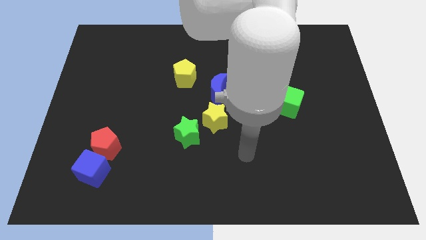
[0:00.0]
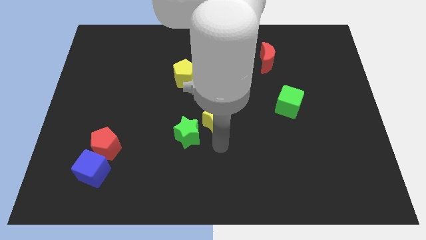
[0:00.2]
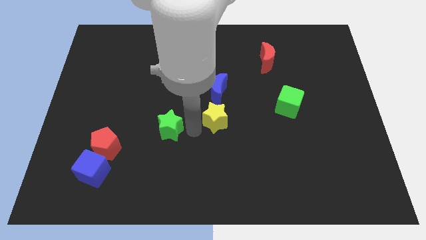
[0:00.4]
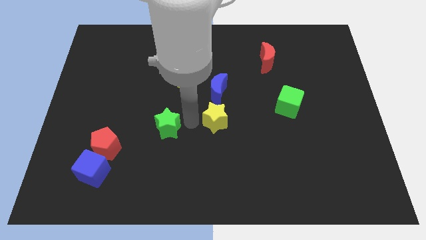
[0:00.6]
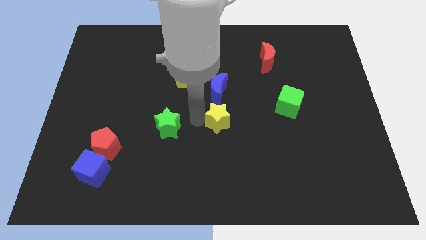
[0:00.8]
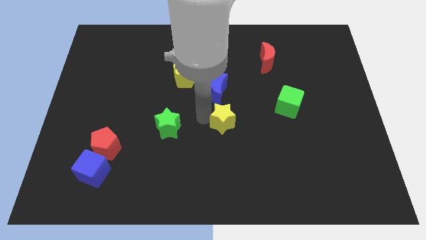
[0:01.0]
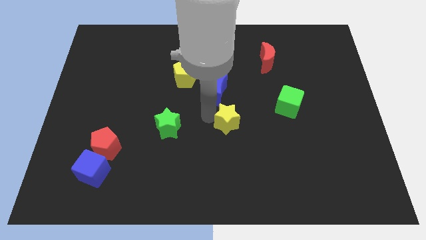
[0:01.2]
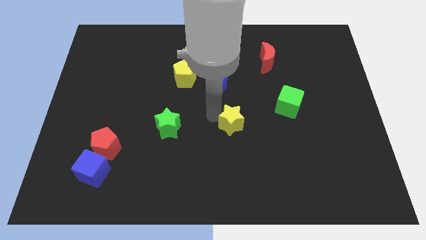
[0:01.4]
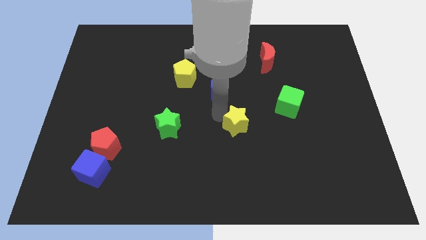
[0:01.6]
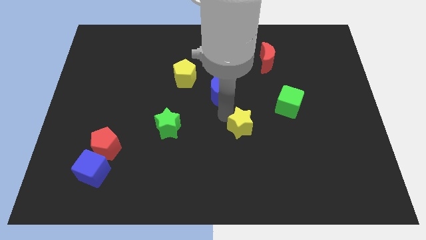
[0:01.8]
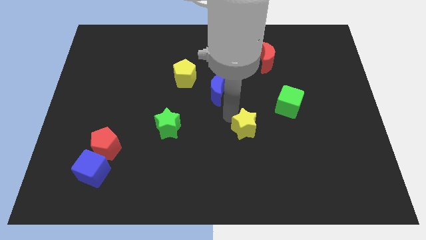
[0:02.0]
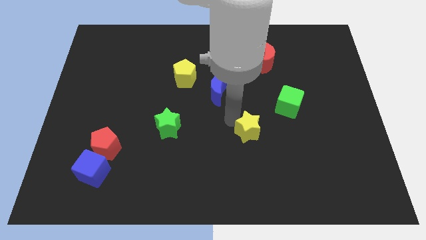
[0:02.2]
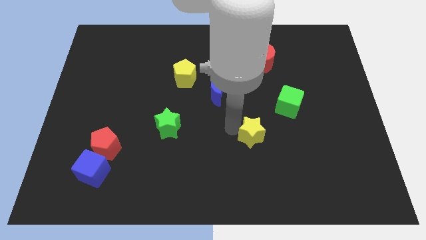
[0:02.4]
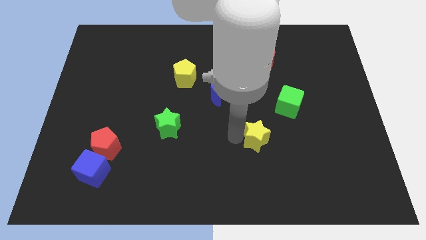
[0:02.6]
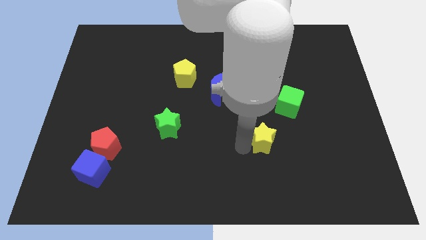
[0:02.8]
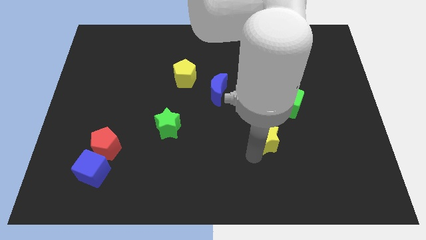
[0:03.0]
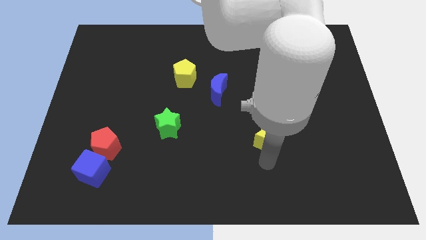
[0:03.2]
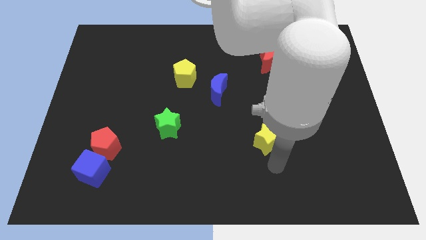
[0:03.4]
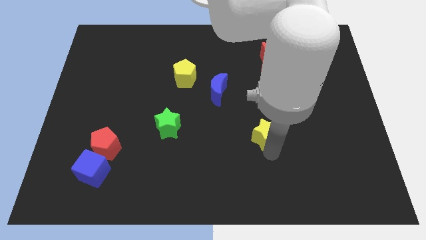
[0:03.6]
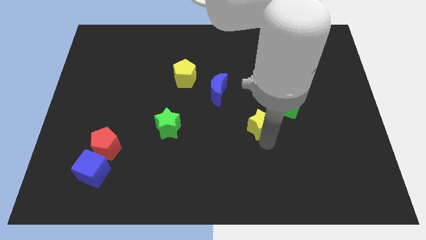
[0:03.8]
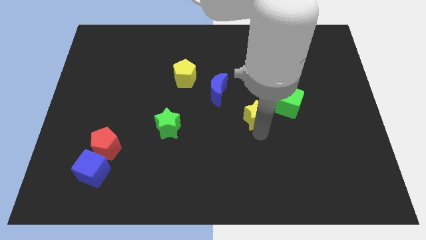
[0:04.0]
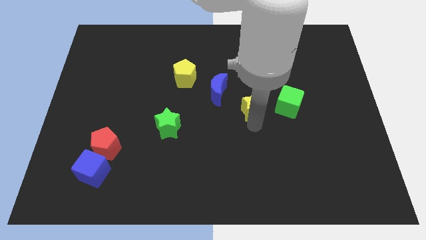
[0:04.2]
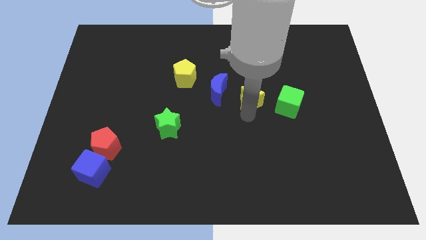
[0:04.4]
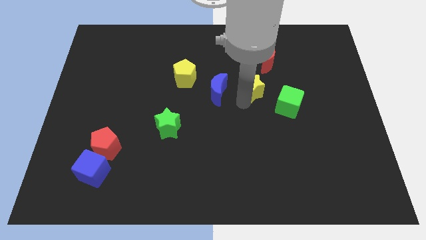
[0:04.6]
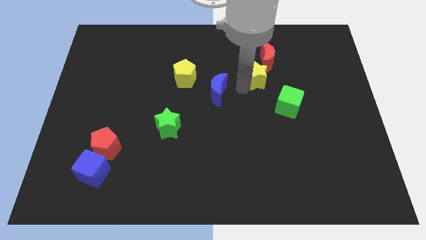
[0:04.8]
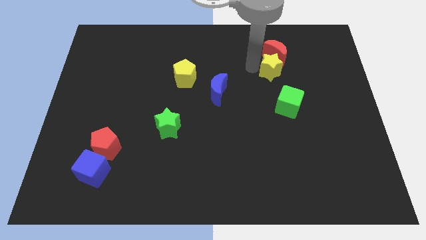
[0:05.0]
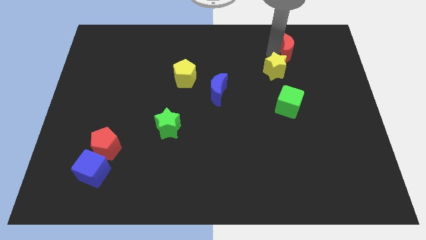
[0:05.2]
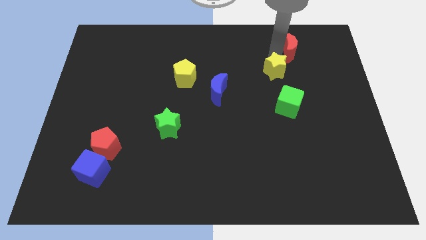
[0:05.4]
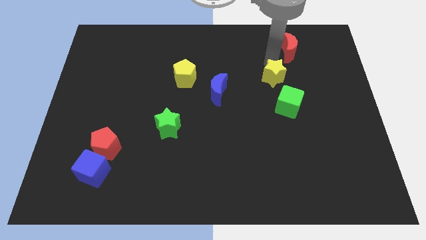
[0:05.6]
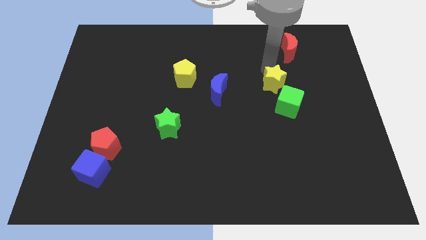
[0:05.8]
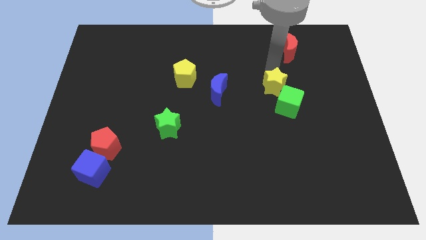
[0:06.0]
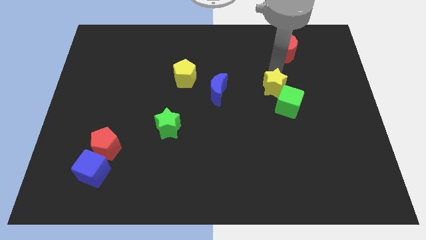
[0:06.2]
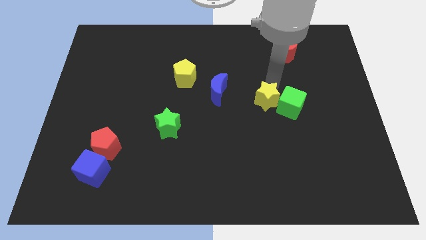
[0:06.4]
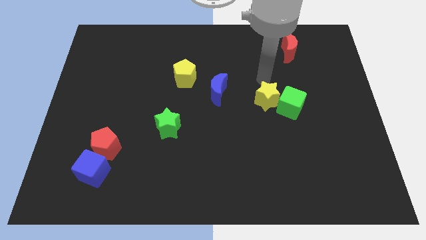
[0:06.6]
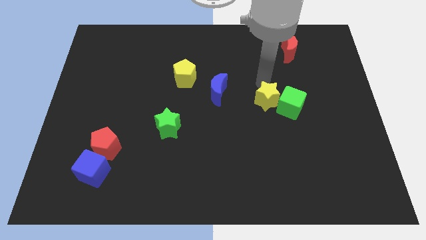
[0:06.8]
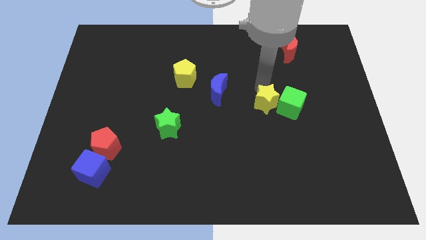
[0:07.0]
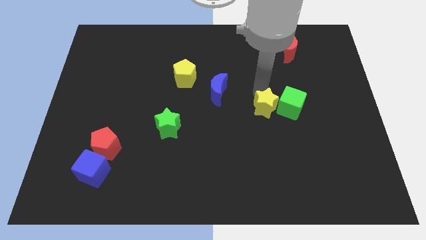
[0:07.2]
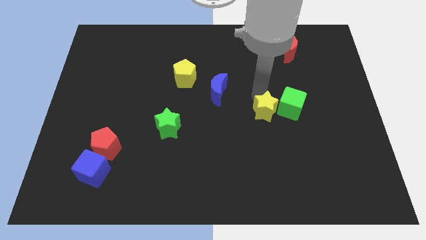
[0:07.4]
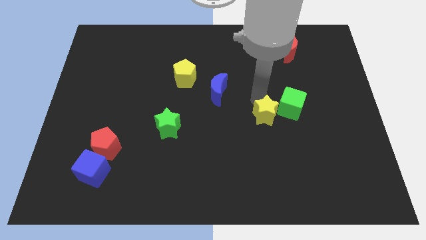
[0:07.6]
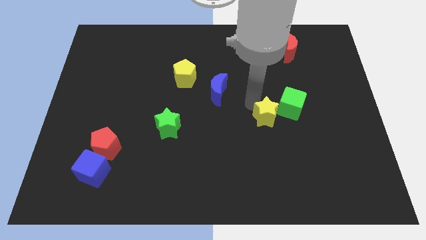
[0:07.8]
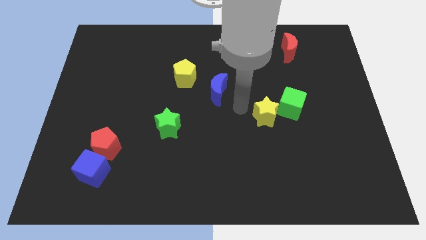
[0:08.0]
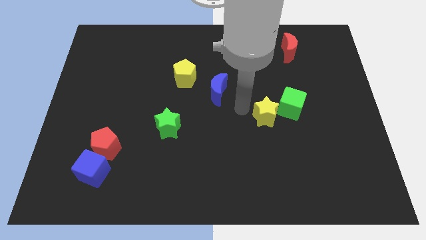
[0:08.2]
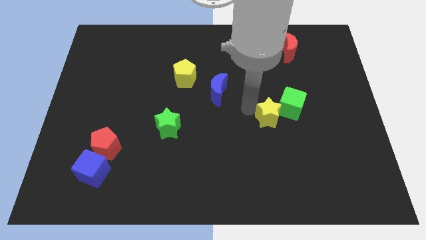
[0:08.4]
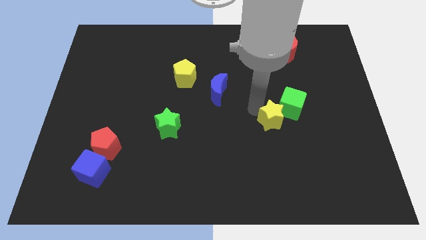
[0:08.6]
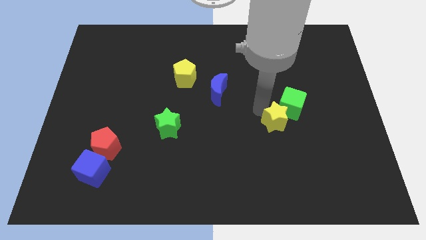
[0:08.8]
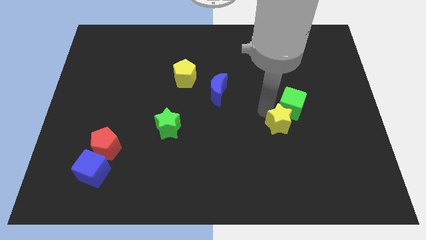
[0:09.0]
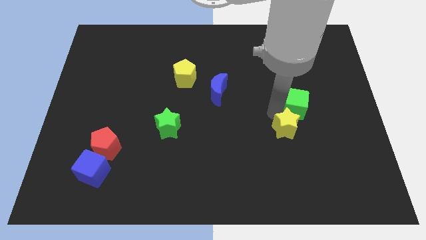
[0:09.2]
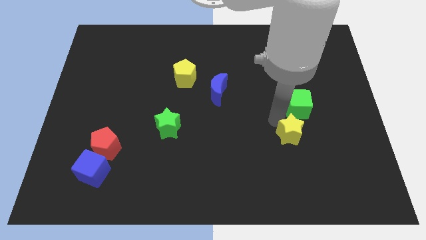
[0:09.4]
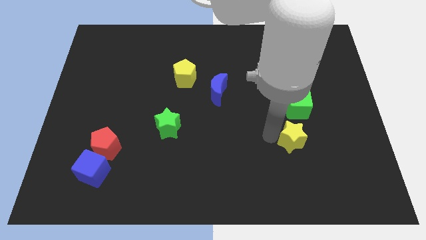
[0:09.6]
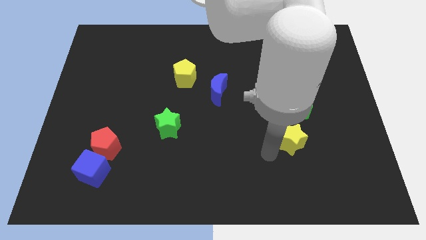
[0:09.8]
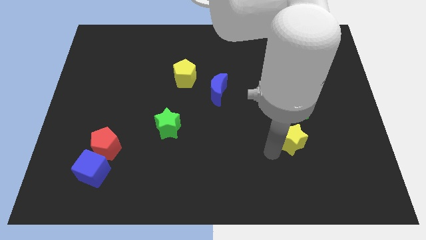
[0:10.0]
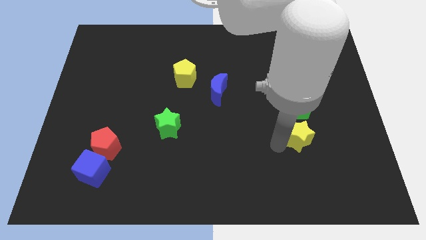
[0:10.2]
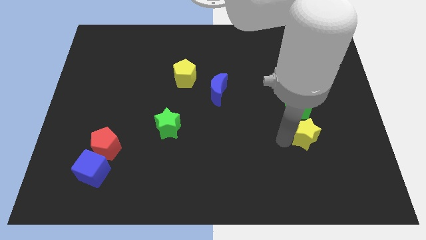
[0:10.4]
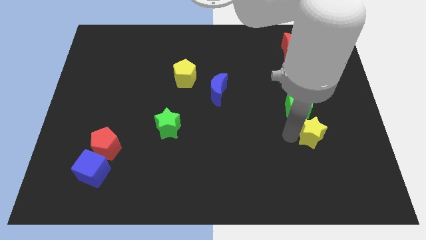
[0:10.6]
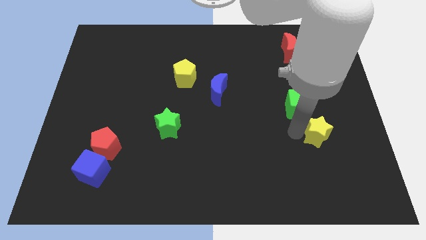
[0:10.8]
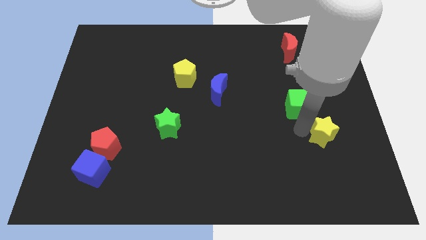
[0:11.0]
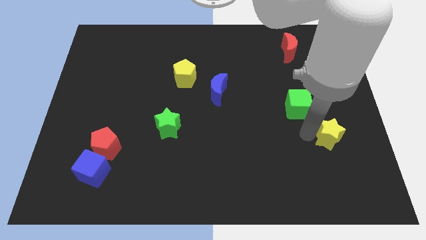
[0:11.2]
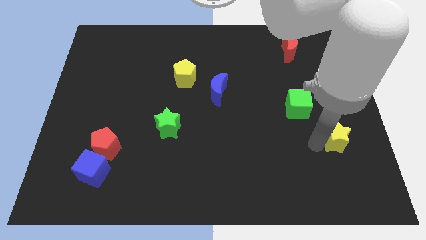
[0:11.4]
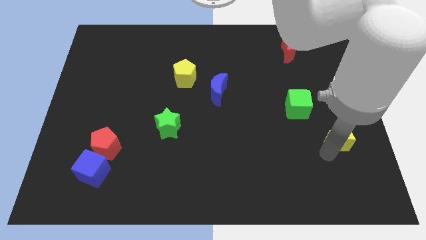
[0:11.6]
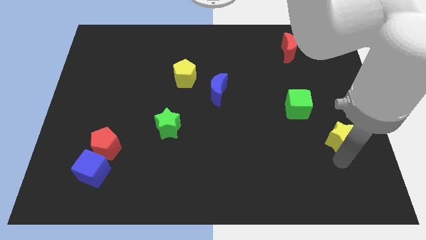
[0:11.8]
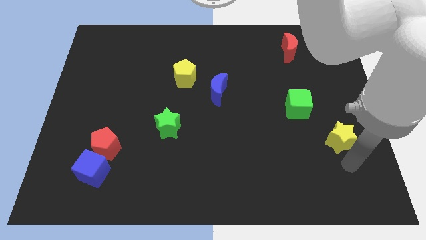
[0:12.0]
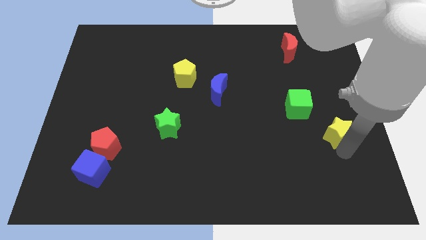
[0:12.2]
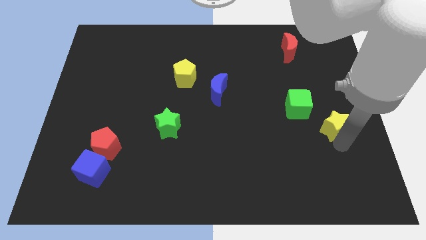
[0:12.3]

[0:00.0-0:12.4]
put the yellow star to the right side

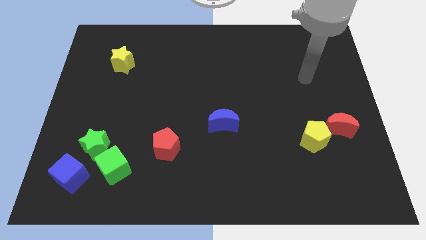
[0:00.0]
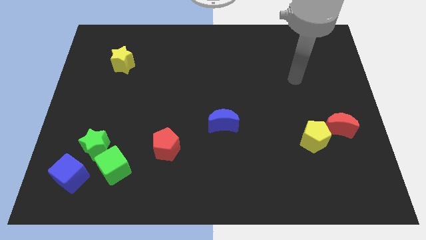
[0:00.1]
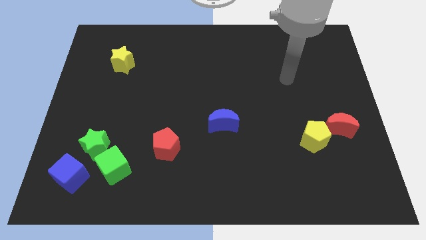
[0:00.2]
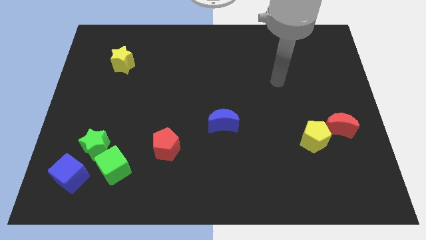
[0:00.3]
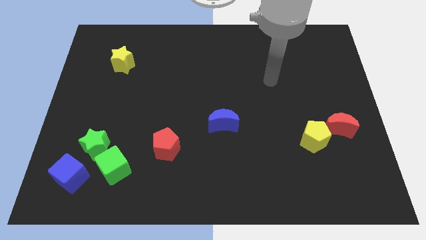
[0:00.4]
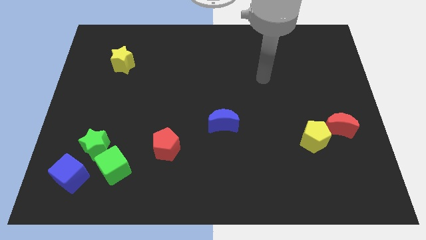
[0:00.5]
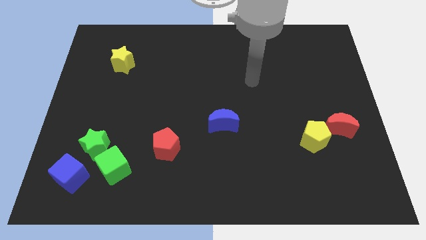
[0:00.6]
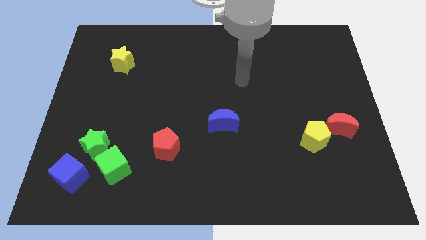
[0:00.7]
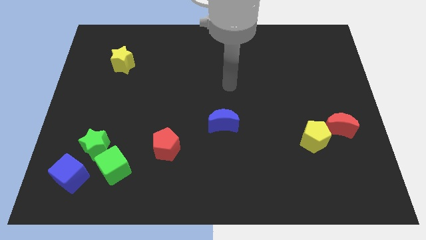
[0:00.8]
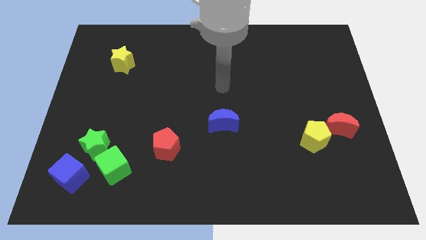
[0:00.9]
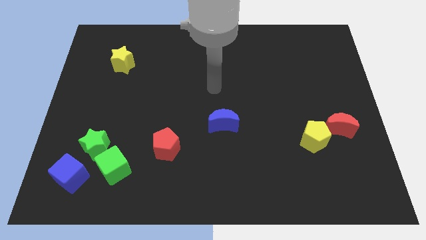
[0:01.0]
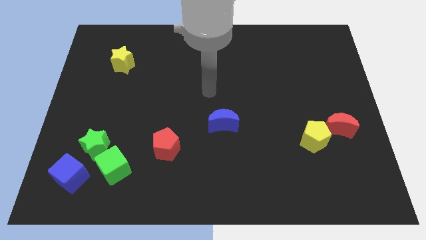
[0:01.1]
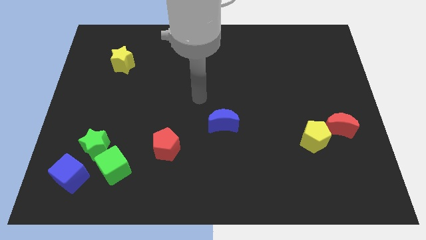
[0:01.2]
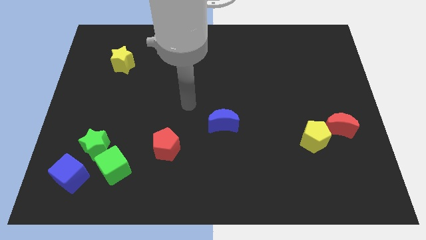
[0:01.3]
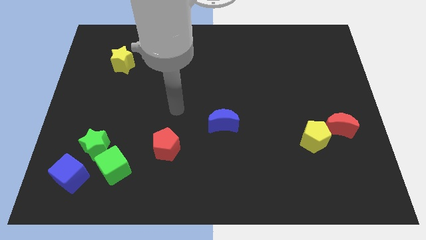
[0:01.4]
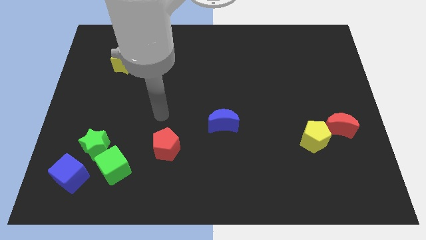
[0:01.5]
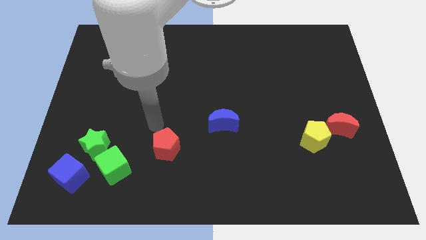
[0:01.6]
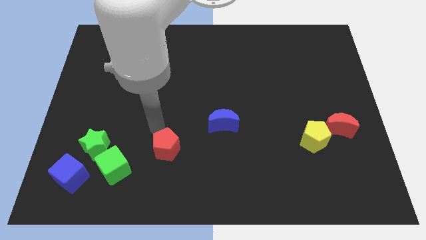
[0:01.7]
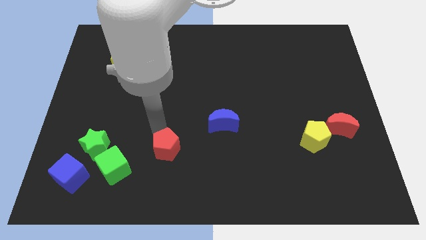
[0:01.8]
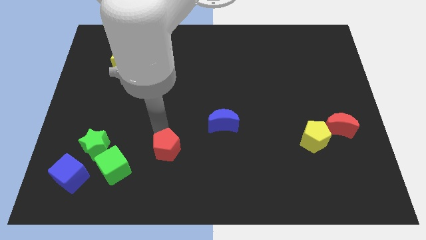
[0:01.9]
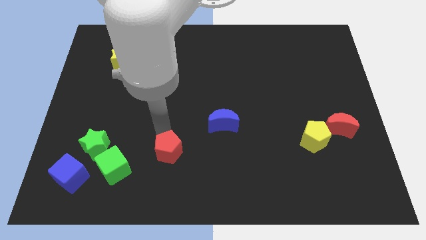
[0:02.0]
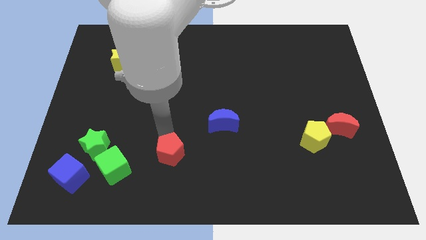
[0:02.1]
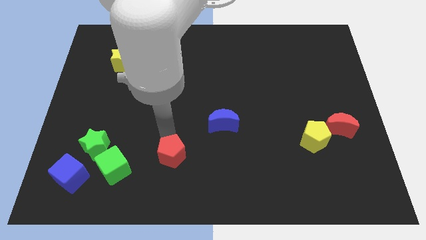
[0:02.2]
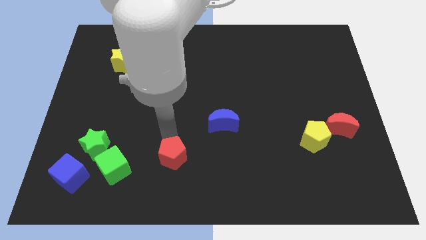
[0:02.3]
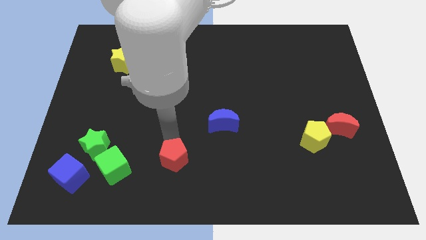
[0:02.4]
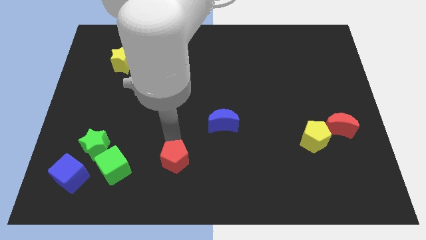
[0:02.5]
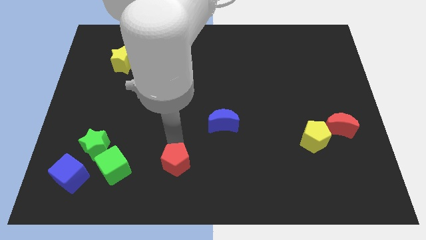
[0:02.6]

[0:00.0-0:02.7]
slide the red pentagon to the bottom side
